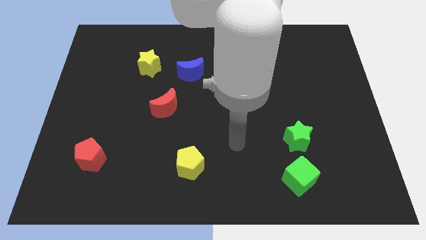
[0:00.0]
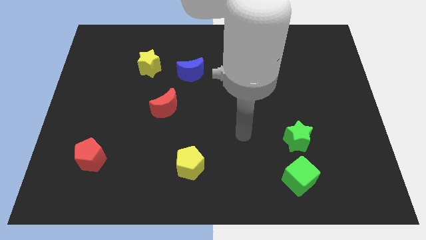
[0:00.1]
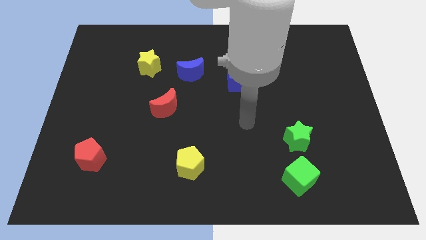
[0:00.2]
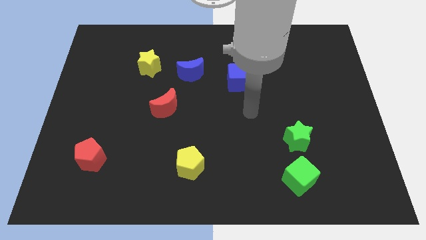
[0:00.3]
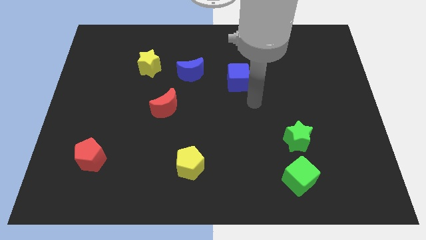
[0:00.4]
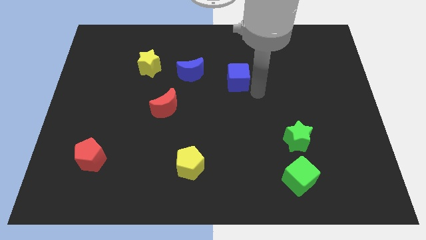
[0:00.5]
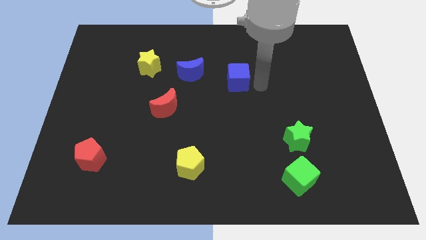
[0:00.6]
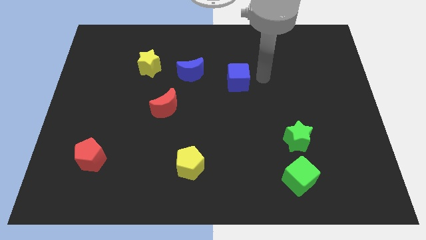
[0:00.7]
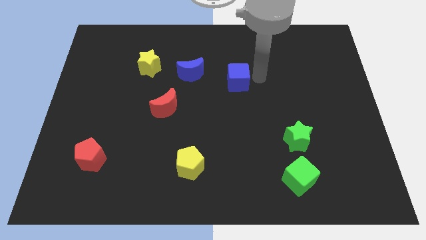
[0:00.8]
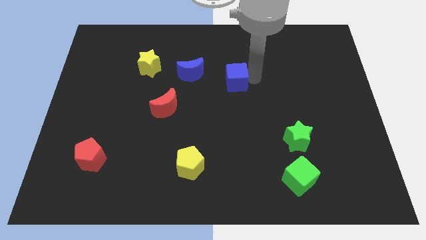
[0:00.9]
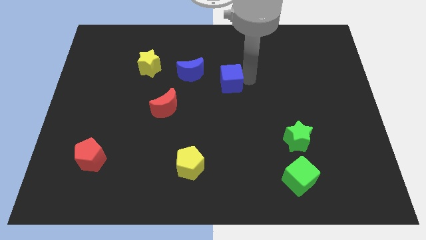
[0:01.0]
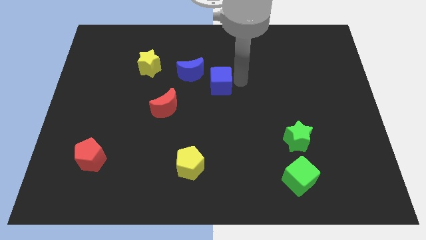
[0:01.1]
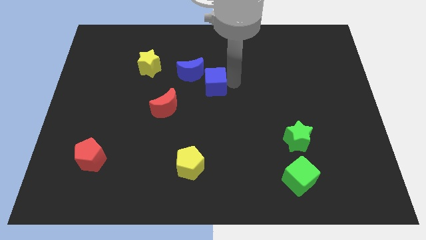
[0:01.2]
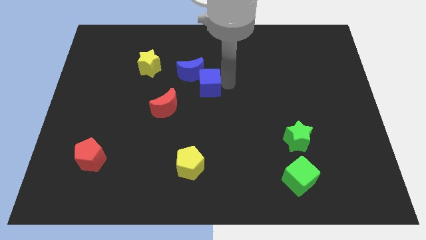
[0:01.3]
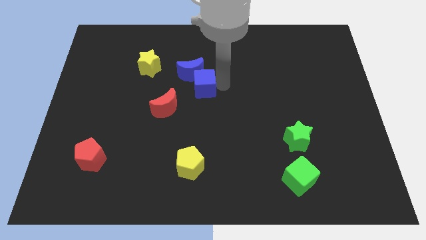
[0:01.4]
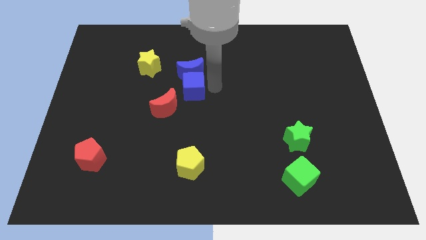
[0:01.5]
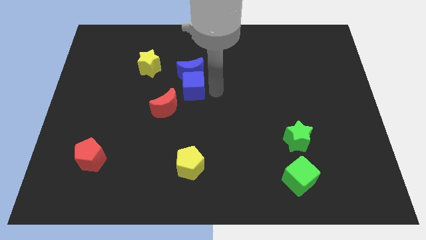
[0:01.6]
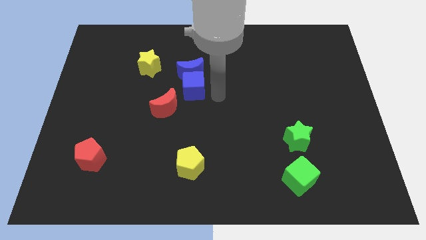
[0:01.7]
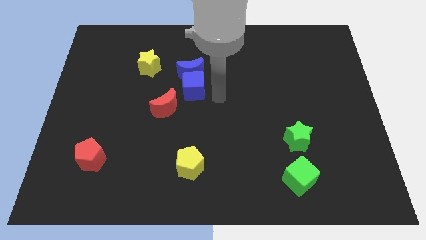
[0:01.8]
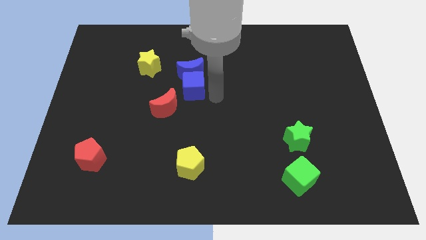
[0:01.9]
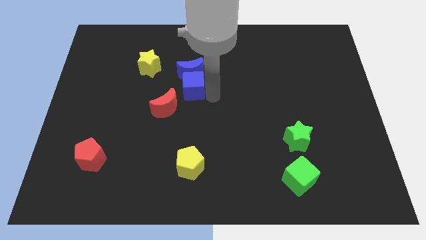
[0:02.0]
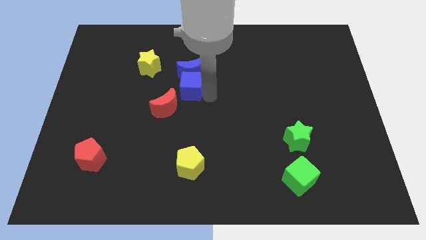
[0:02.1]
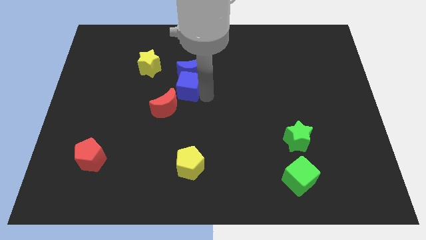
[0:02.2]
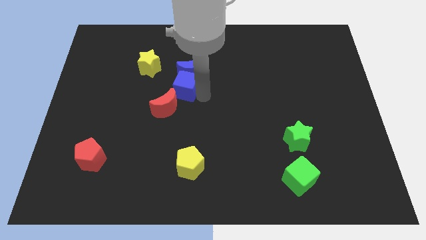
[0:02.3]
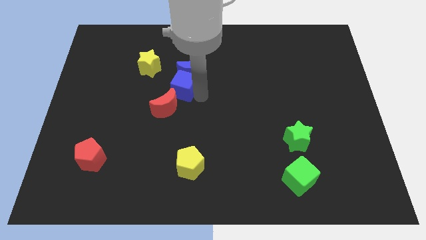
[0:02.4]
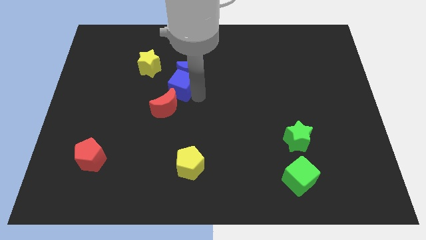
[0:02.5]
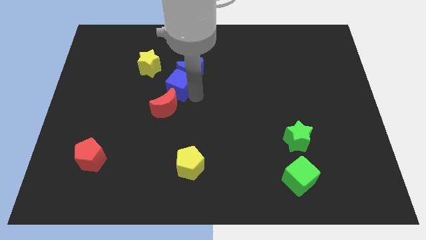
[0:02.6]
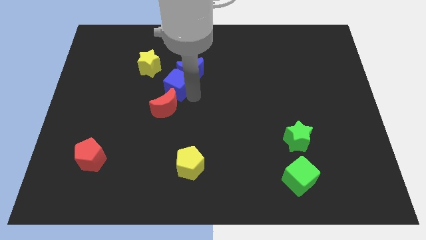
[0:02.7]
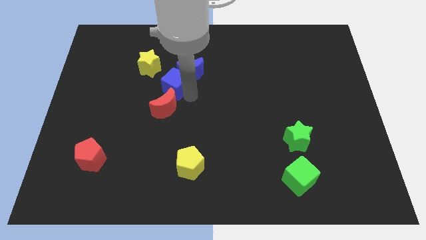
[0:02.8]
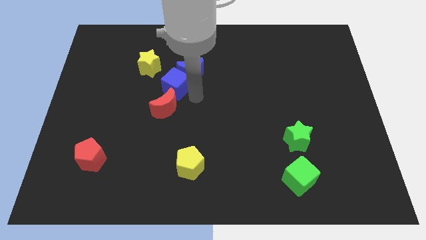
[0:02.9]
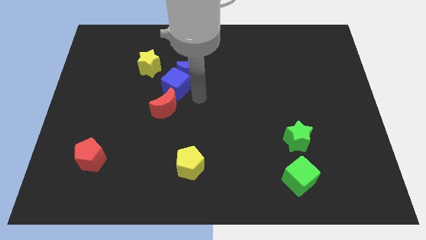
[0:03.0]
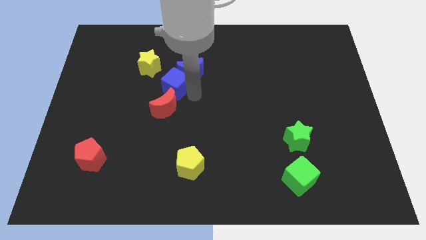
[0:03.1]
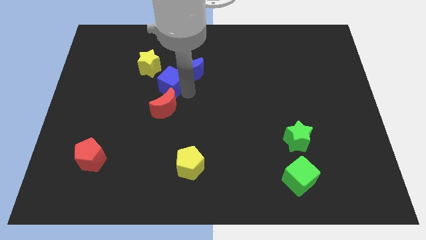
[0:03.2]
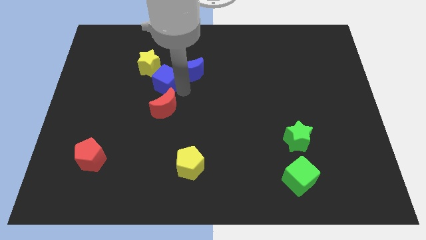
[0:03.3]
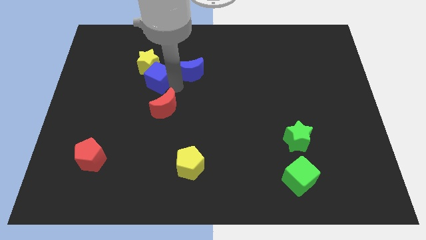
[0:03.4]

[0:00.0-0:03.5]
slide the blue cube left

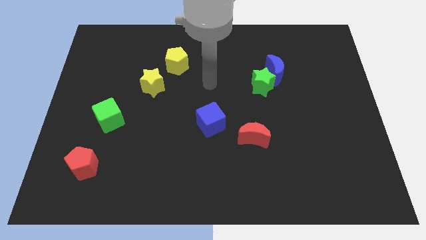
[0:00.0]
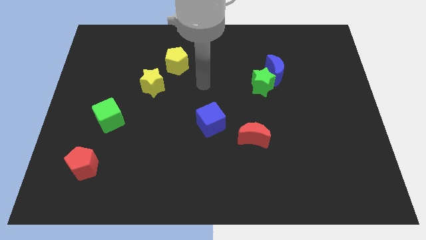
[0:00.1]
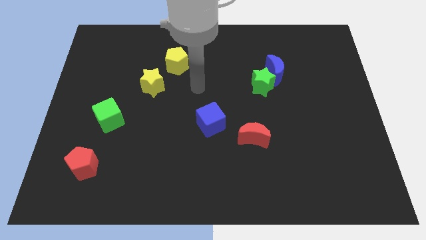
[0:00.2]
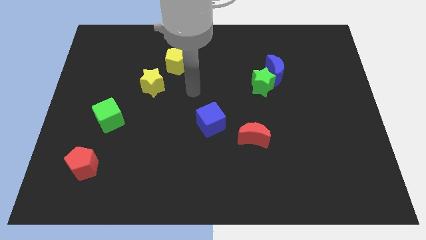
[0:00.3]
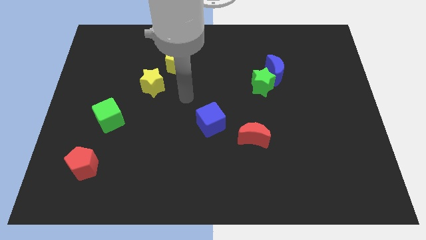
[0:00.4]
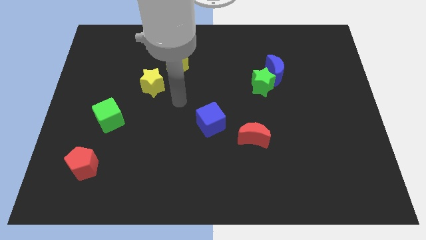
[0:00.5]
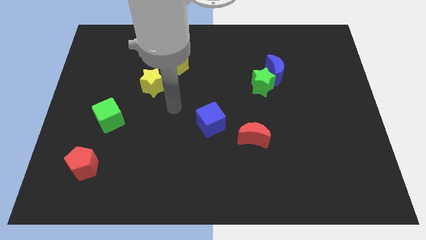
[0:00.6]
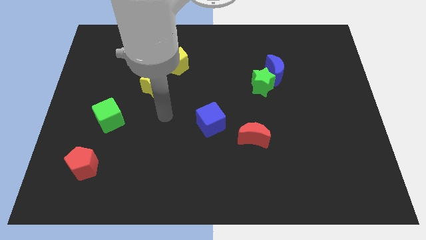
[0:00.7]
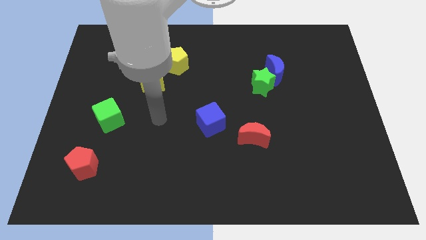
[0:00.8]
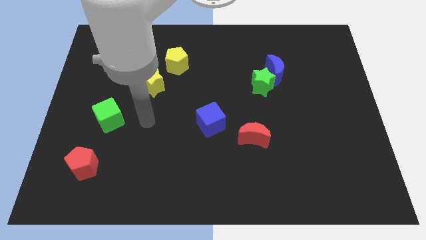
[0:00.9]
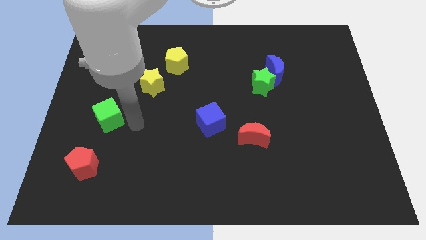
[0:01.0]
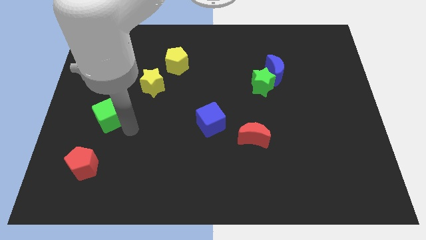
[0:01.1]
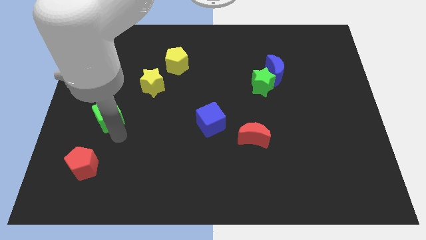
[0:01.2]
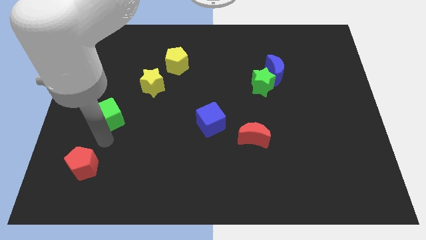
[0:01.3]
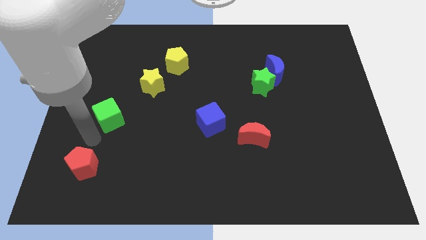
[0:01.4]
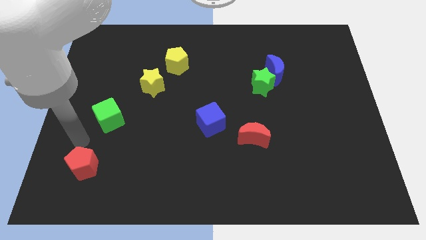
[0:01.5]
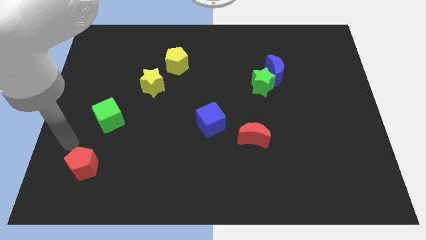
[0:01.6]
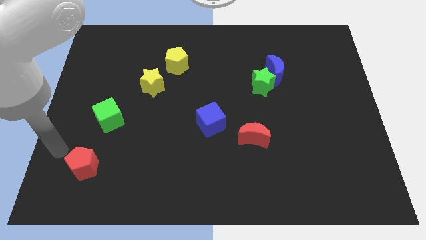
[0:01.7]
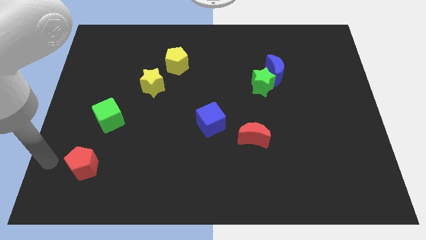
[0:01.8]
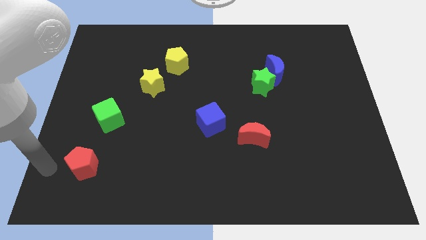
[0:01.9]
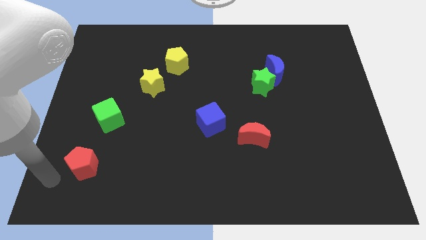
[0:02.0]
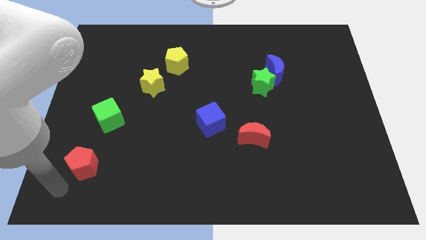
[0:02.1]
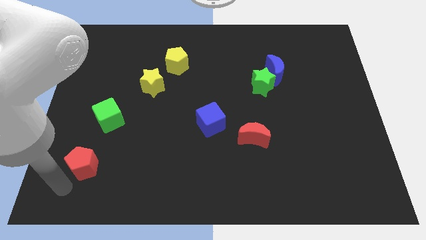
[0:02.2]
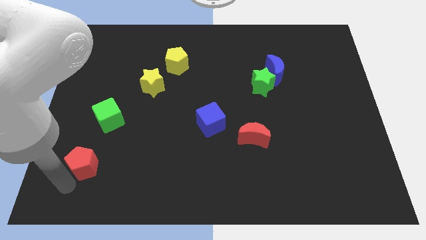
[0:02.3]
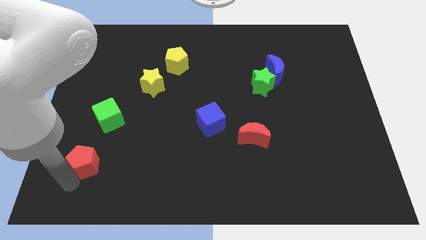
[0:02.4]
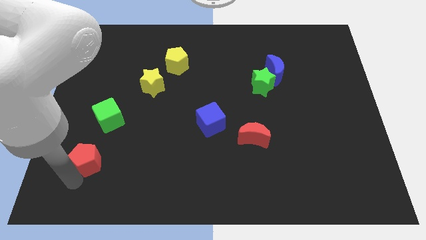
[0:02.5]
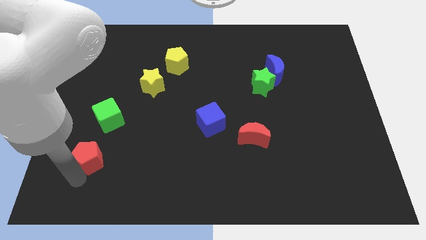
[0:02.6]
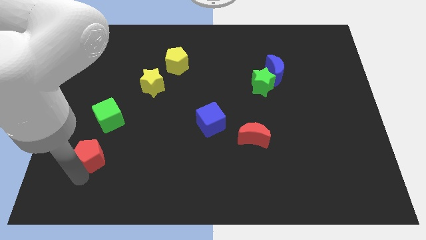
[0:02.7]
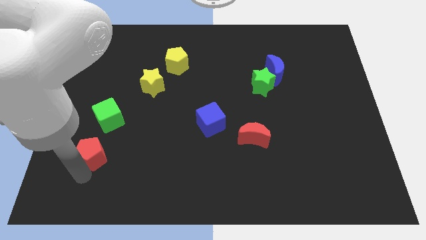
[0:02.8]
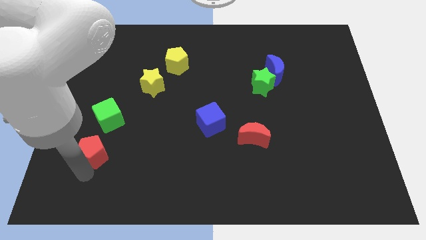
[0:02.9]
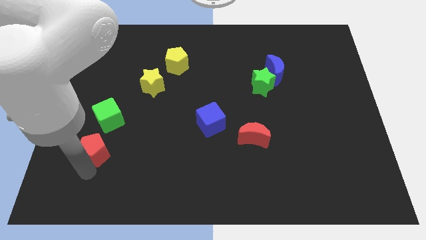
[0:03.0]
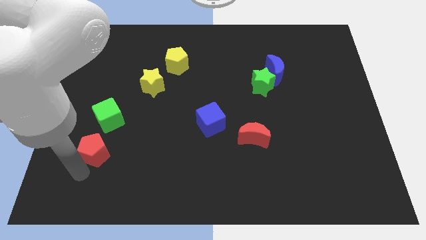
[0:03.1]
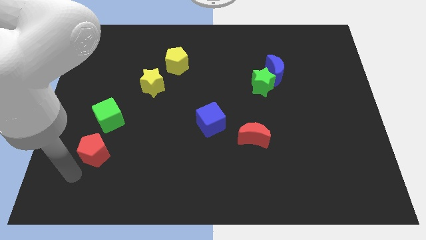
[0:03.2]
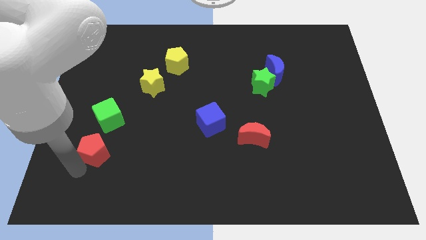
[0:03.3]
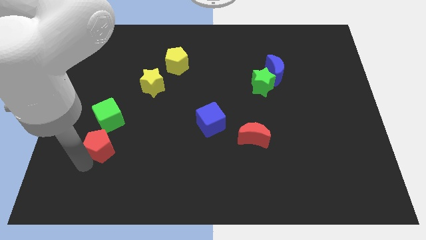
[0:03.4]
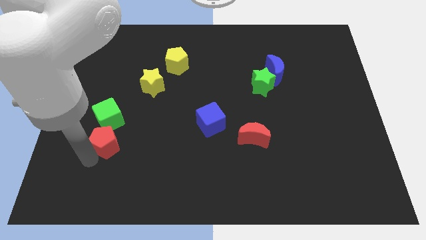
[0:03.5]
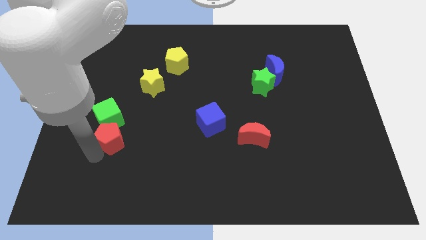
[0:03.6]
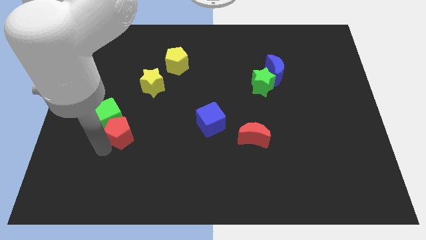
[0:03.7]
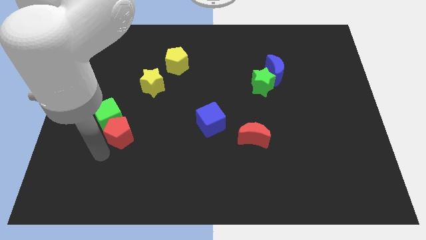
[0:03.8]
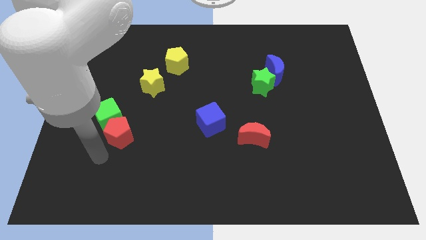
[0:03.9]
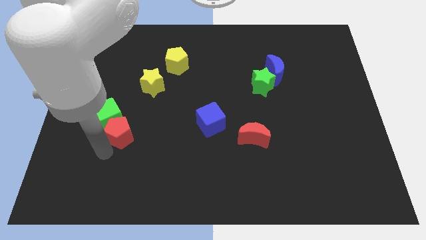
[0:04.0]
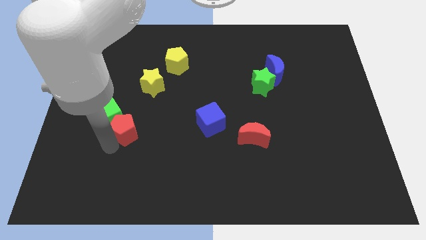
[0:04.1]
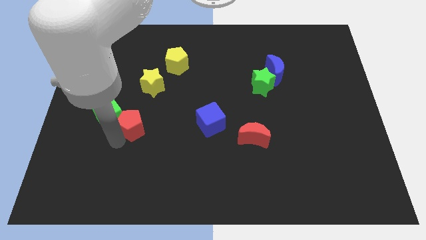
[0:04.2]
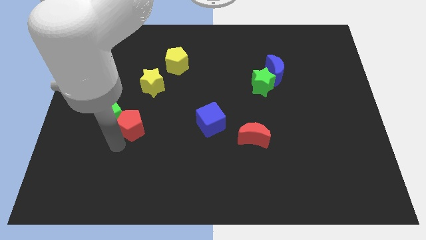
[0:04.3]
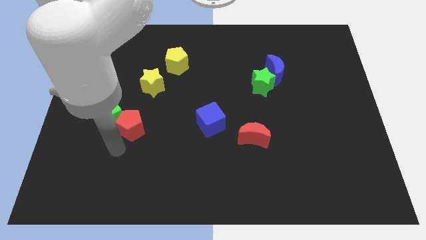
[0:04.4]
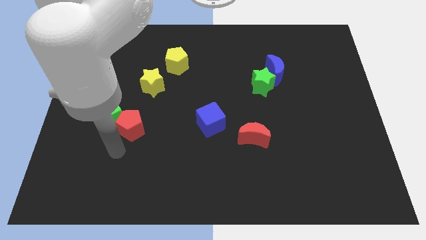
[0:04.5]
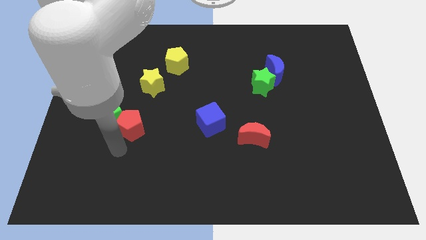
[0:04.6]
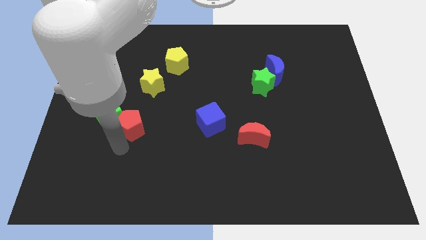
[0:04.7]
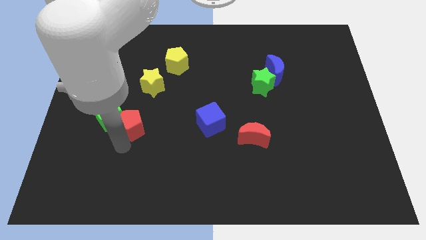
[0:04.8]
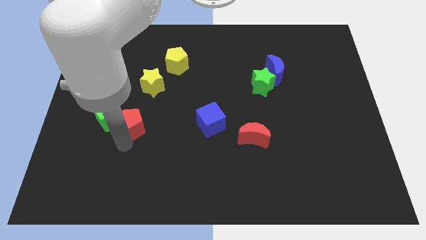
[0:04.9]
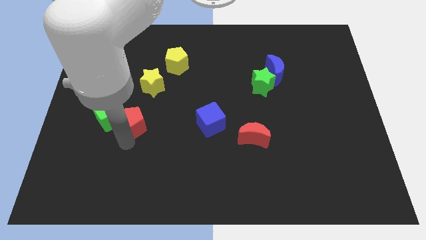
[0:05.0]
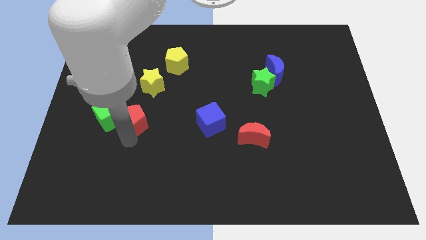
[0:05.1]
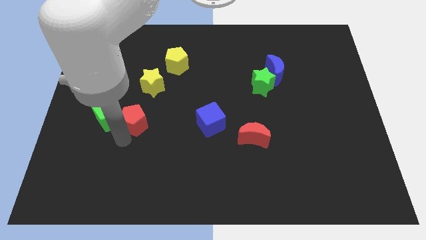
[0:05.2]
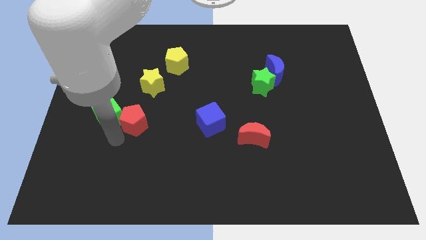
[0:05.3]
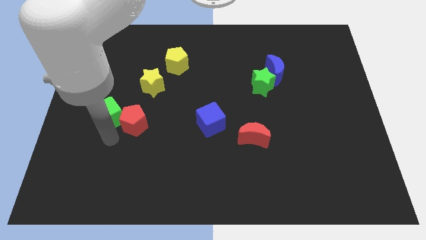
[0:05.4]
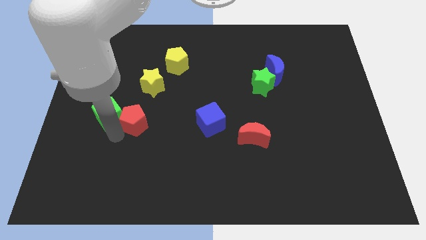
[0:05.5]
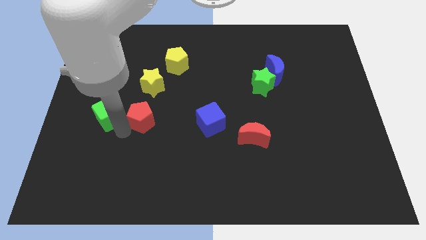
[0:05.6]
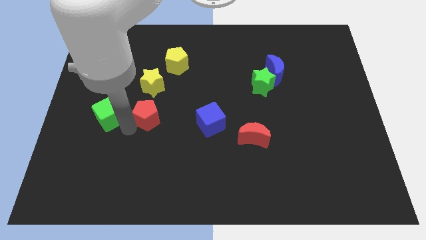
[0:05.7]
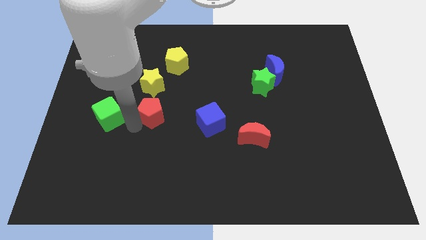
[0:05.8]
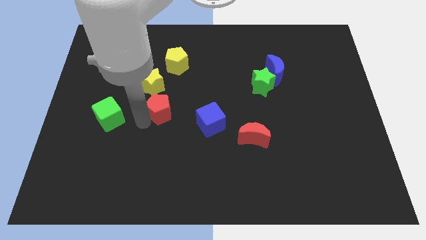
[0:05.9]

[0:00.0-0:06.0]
push the red pentagon upwards and then to the right
